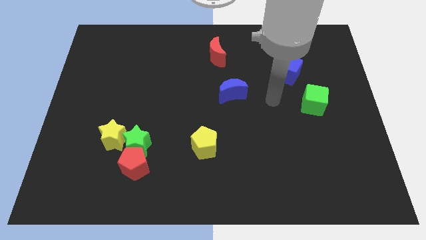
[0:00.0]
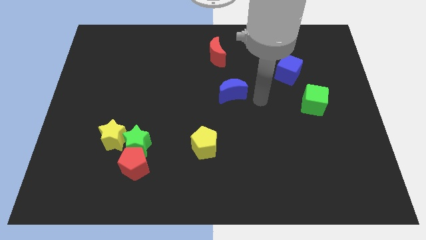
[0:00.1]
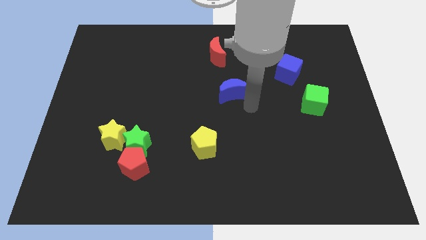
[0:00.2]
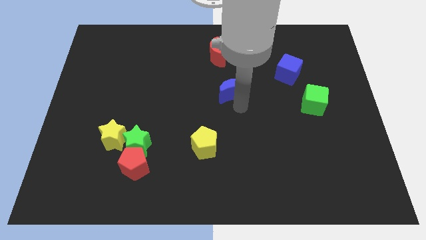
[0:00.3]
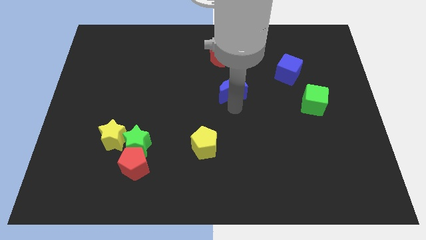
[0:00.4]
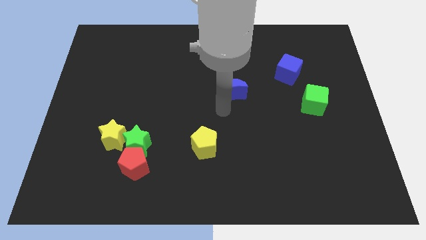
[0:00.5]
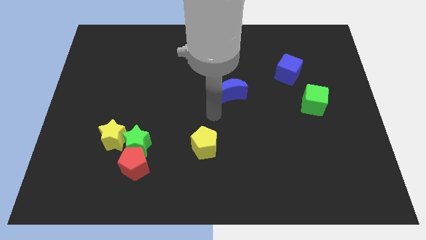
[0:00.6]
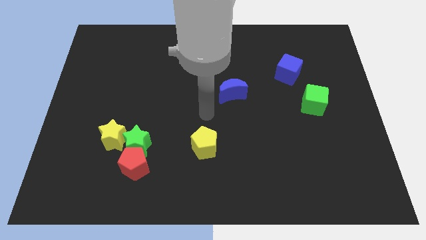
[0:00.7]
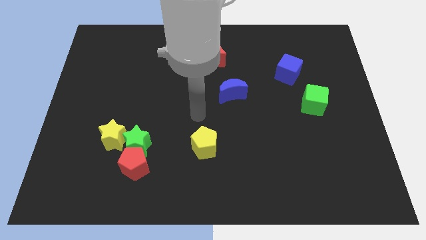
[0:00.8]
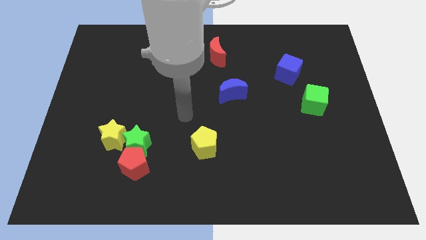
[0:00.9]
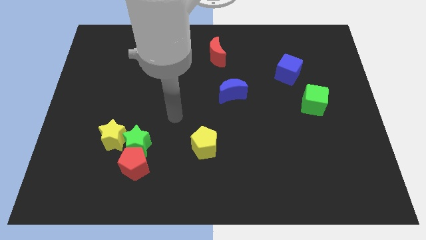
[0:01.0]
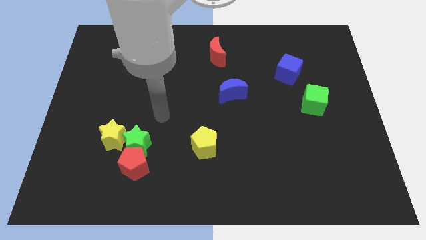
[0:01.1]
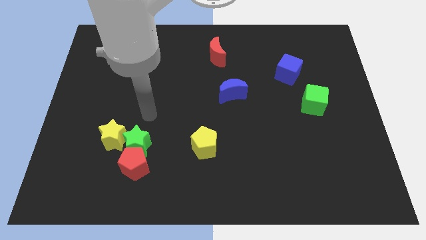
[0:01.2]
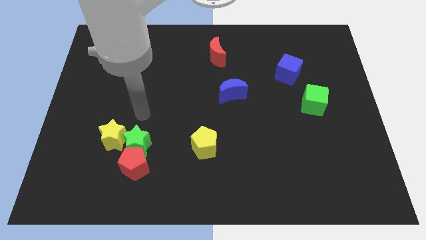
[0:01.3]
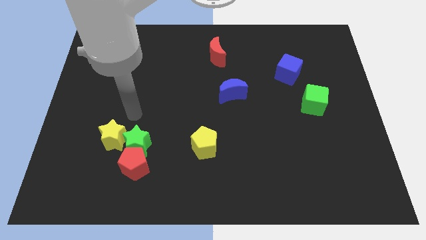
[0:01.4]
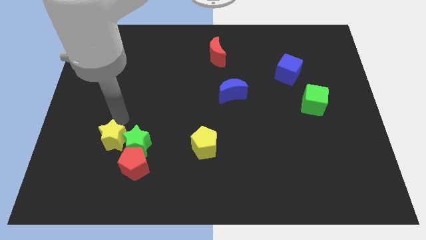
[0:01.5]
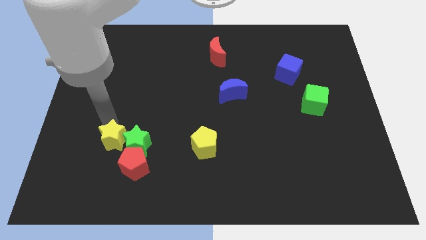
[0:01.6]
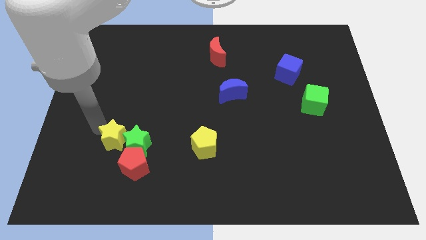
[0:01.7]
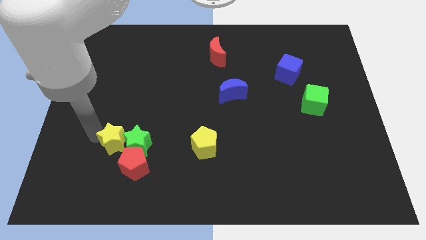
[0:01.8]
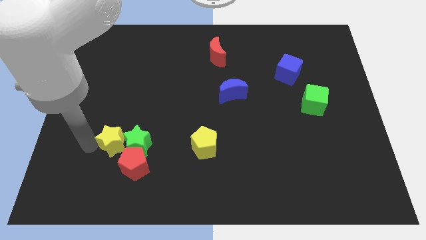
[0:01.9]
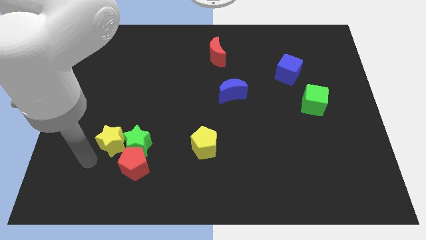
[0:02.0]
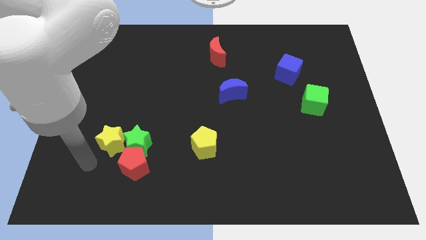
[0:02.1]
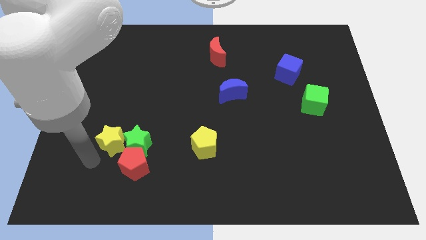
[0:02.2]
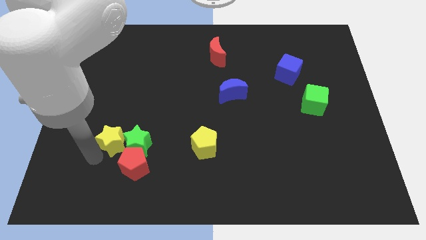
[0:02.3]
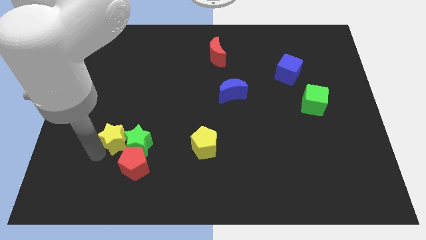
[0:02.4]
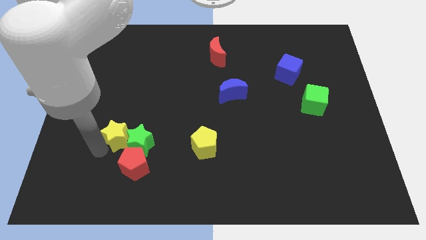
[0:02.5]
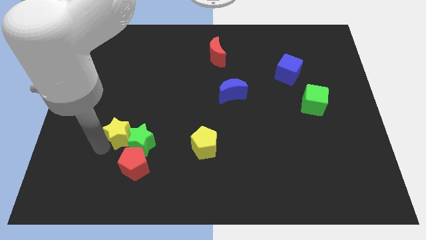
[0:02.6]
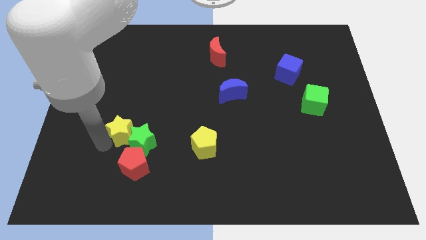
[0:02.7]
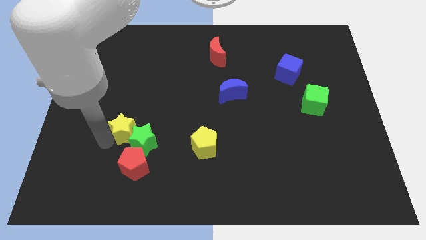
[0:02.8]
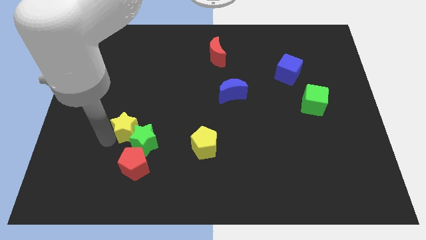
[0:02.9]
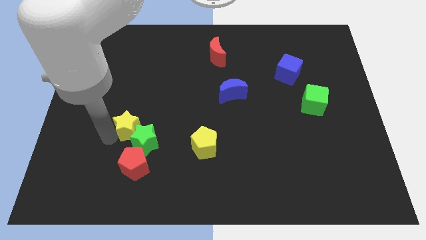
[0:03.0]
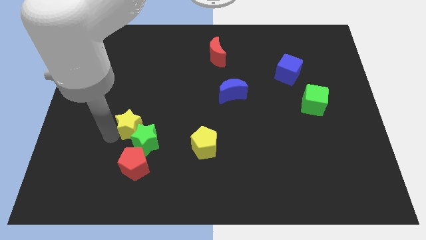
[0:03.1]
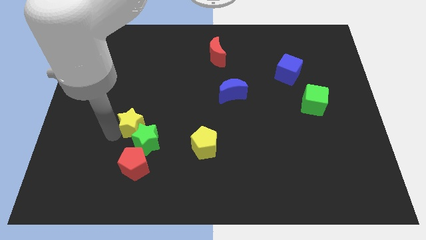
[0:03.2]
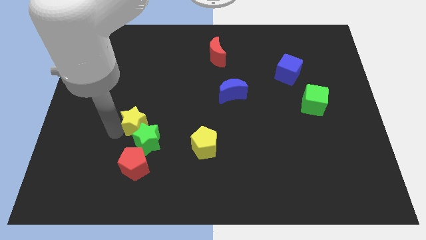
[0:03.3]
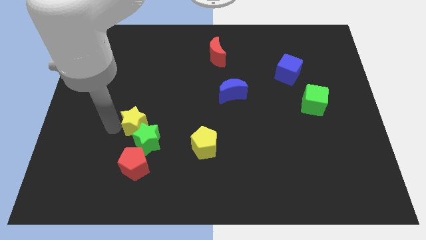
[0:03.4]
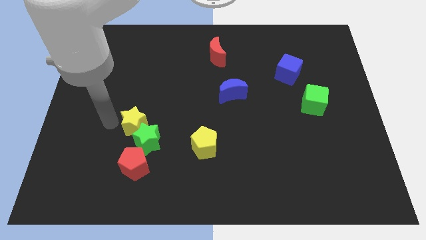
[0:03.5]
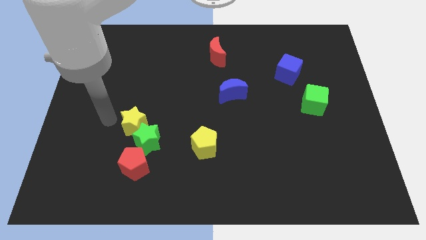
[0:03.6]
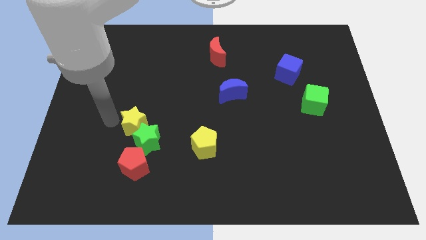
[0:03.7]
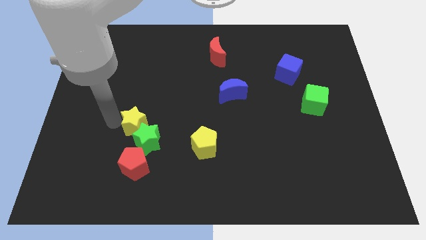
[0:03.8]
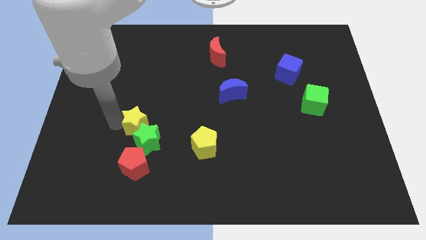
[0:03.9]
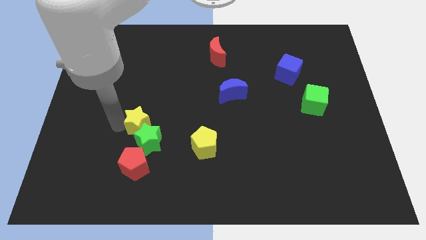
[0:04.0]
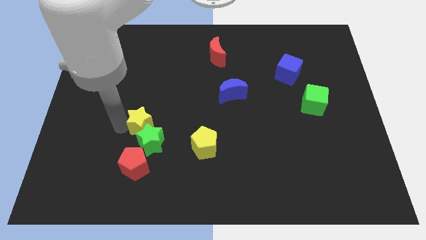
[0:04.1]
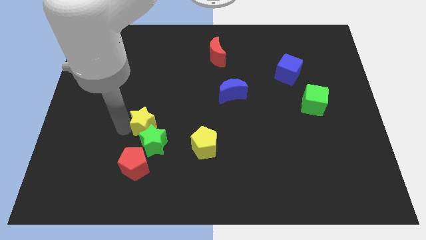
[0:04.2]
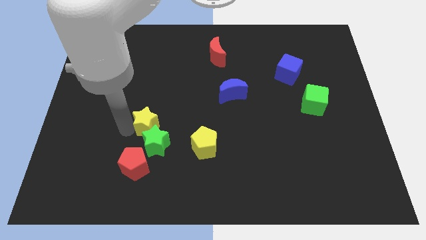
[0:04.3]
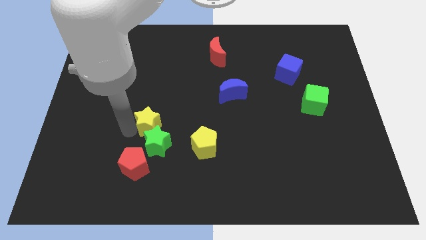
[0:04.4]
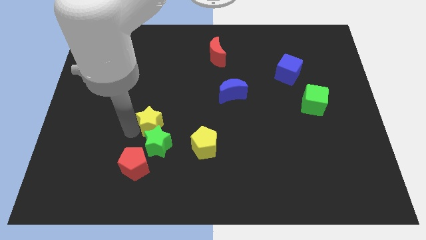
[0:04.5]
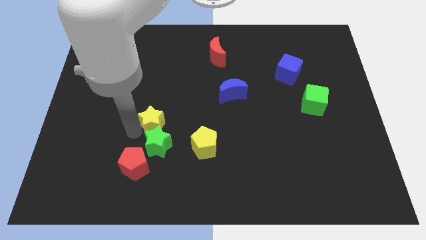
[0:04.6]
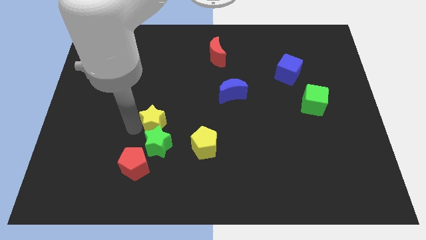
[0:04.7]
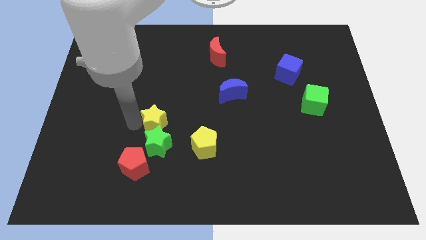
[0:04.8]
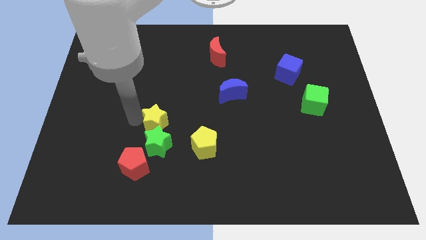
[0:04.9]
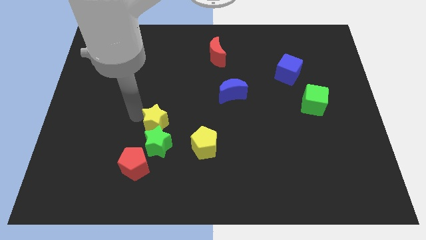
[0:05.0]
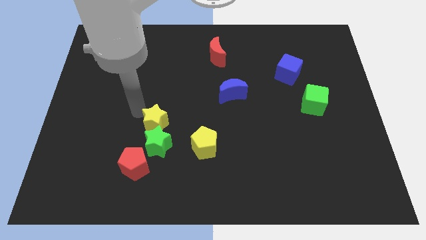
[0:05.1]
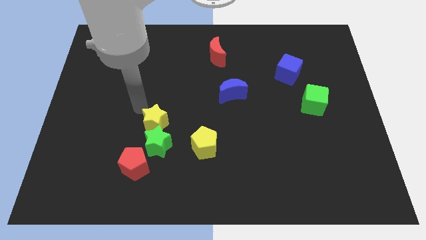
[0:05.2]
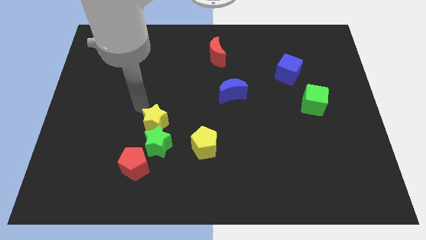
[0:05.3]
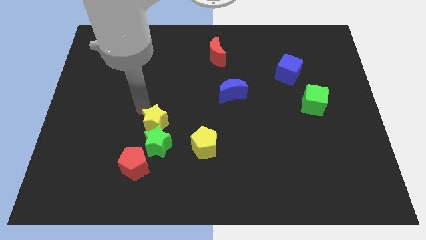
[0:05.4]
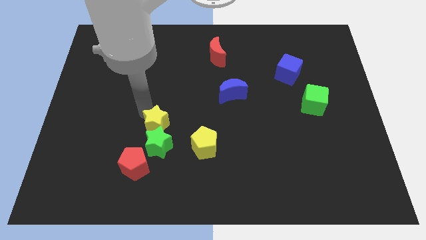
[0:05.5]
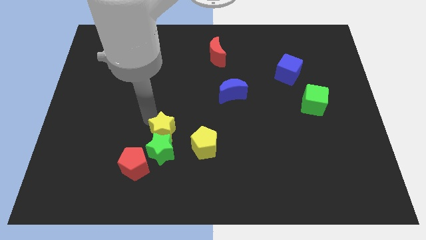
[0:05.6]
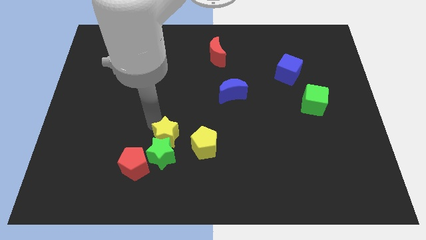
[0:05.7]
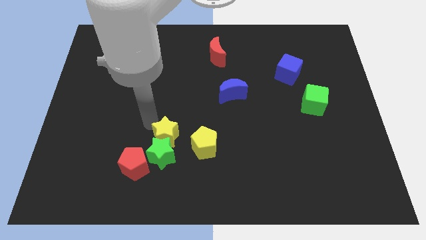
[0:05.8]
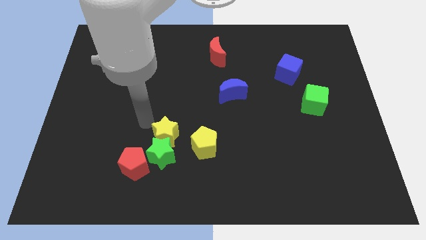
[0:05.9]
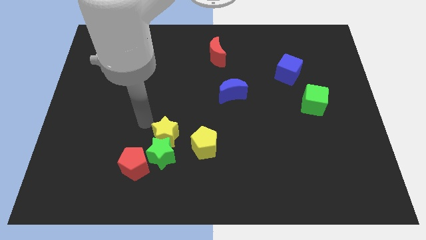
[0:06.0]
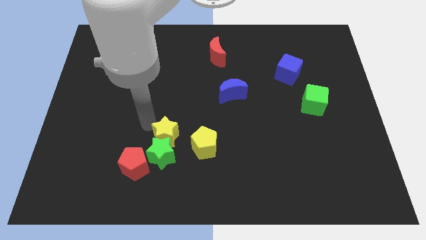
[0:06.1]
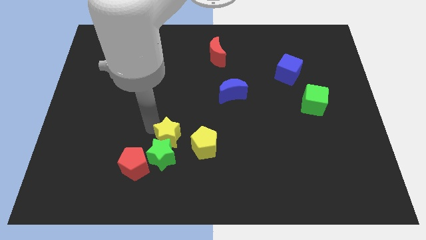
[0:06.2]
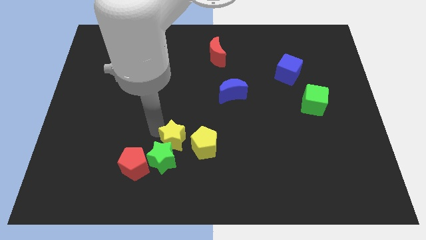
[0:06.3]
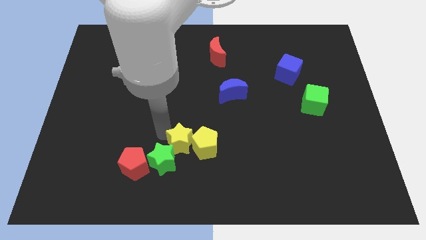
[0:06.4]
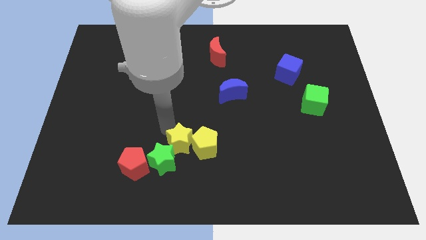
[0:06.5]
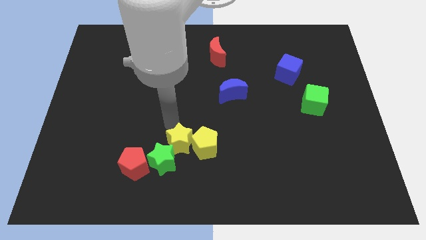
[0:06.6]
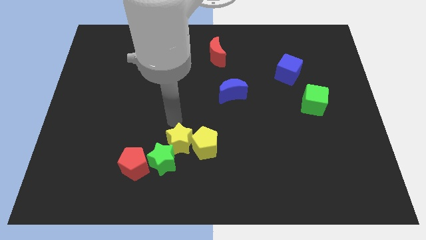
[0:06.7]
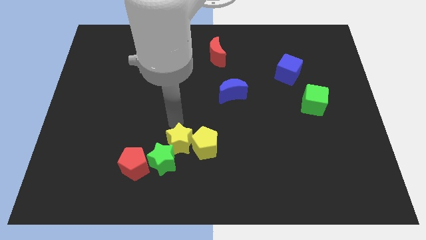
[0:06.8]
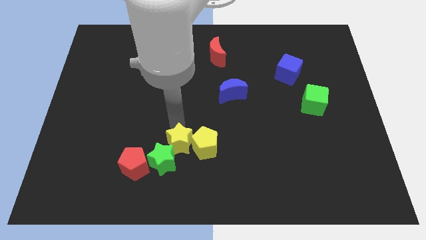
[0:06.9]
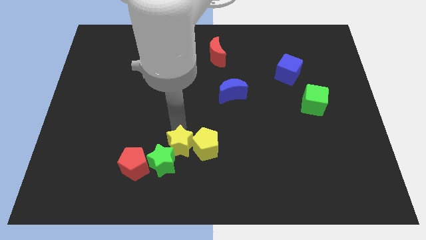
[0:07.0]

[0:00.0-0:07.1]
slide the yellow star to the right of the red pentagon
